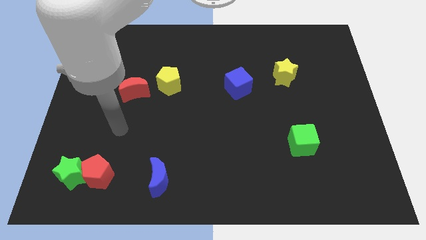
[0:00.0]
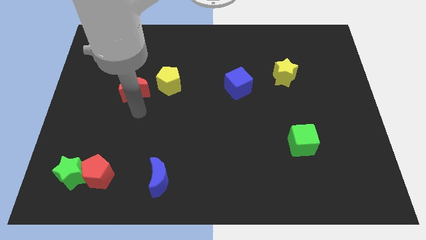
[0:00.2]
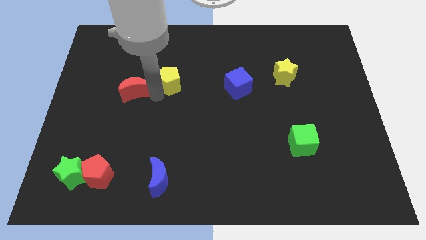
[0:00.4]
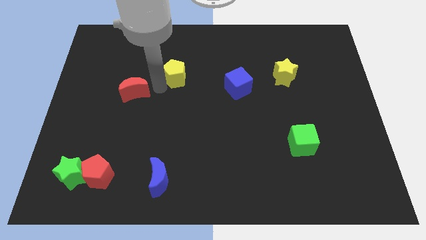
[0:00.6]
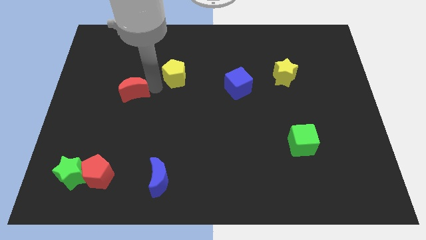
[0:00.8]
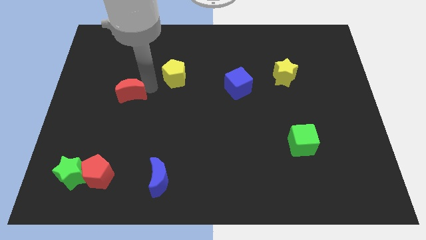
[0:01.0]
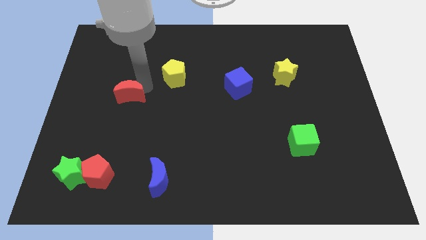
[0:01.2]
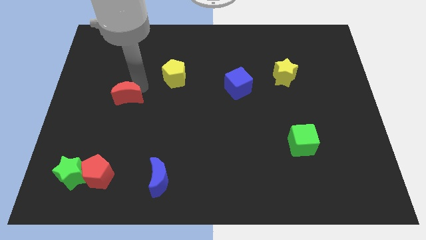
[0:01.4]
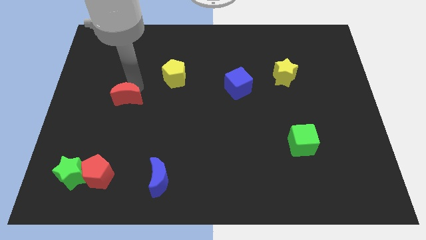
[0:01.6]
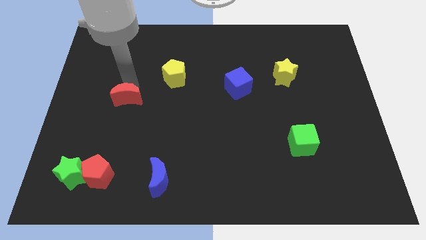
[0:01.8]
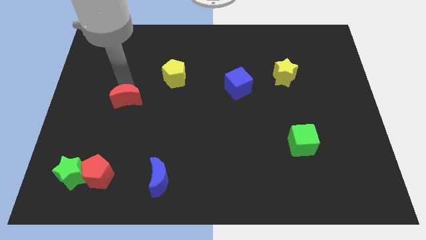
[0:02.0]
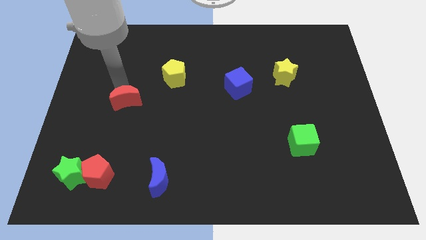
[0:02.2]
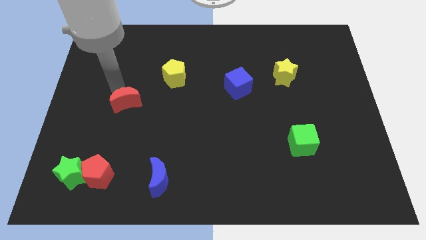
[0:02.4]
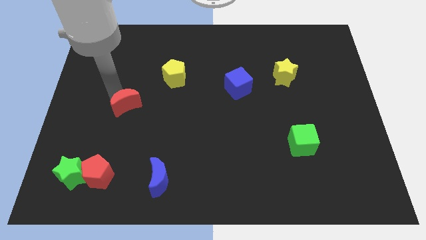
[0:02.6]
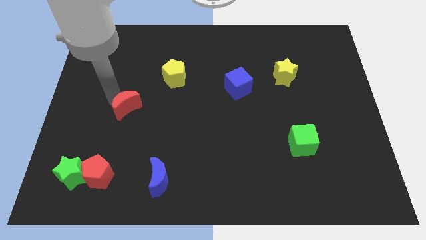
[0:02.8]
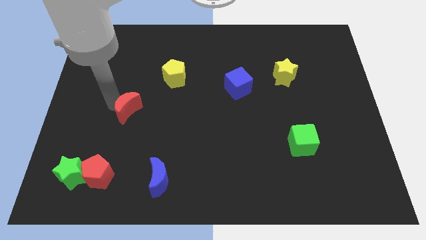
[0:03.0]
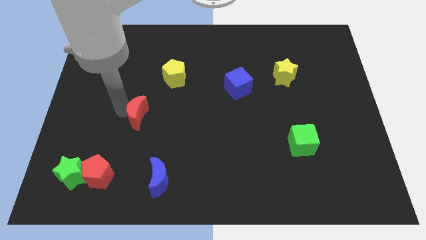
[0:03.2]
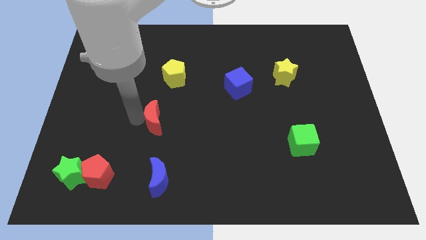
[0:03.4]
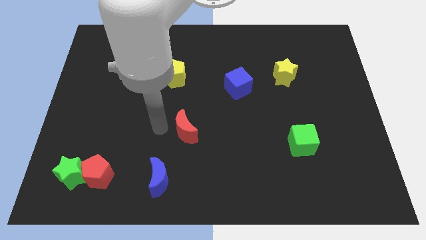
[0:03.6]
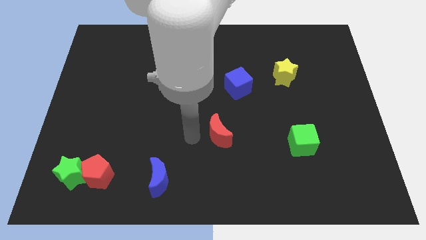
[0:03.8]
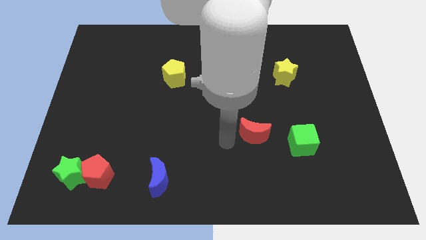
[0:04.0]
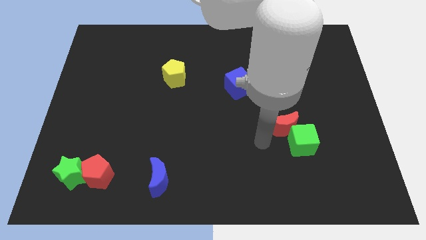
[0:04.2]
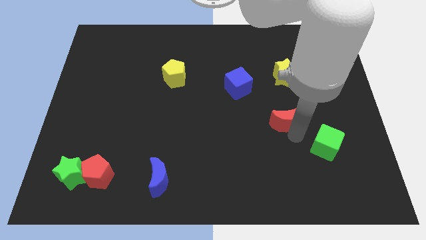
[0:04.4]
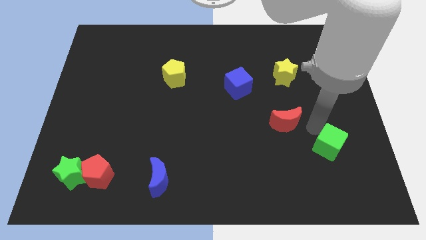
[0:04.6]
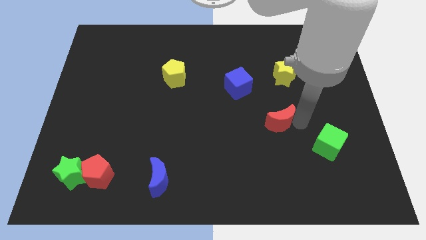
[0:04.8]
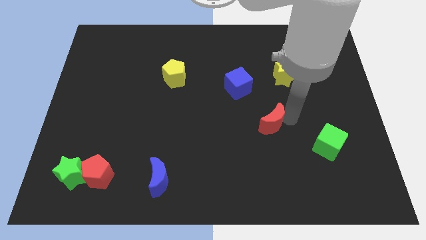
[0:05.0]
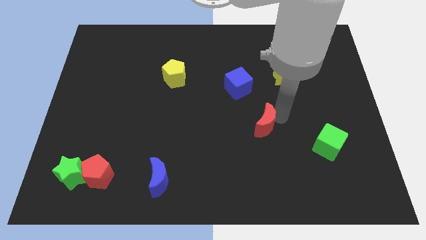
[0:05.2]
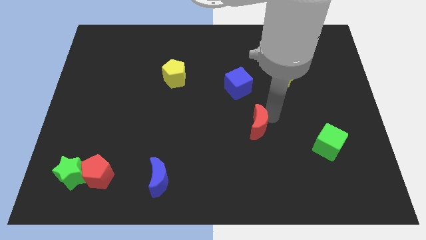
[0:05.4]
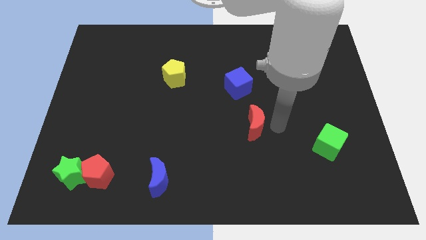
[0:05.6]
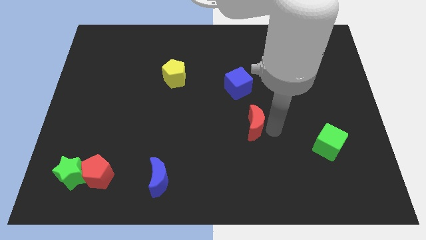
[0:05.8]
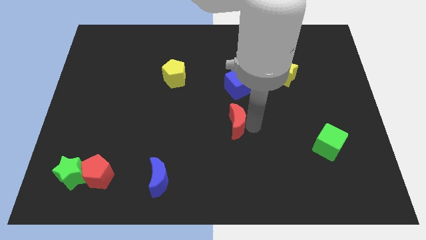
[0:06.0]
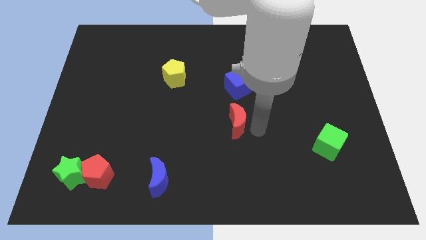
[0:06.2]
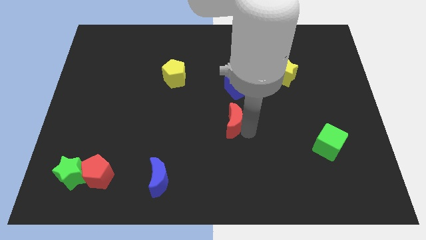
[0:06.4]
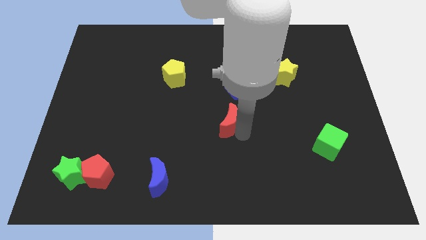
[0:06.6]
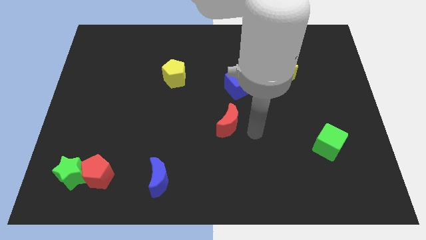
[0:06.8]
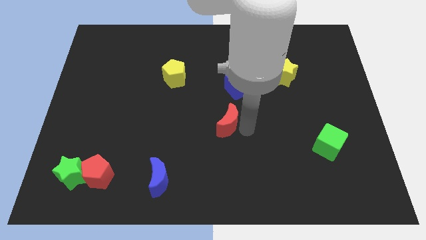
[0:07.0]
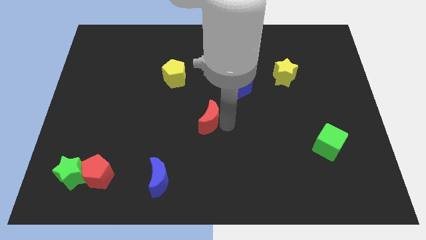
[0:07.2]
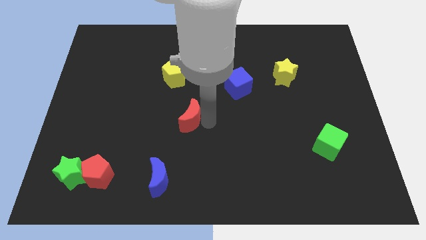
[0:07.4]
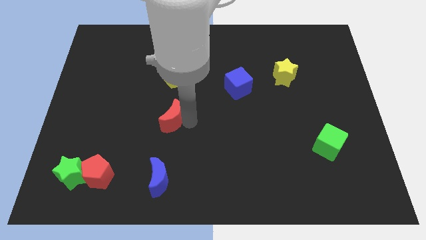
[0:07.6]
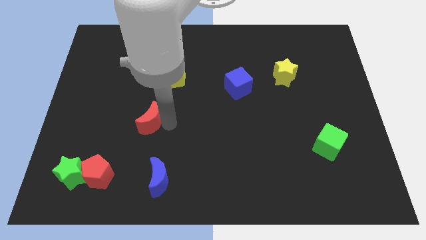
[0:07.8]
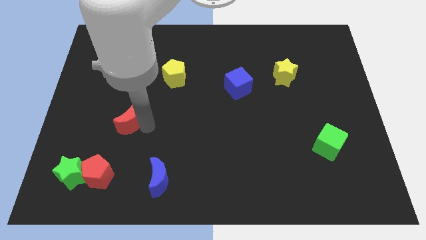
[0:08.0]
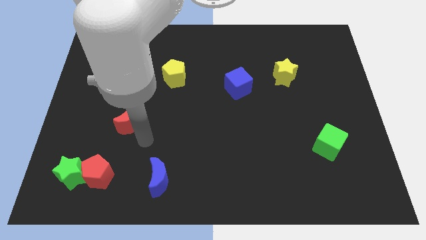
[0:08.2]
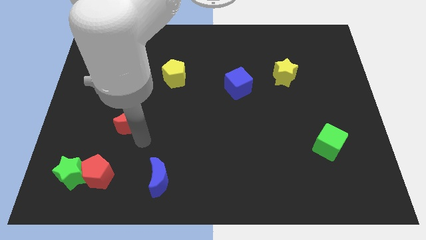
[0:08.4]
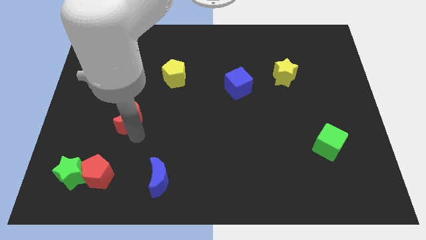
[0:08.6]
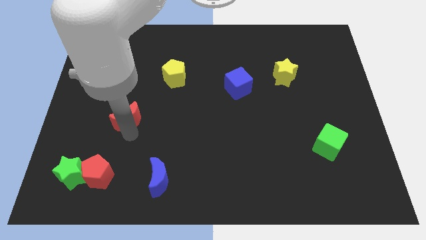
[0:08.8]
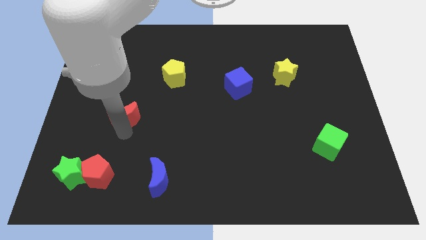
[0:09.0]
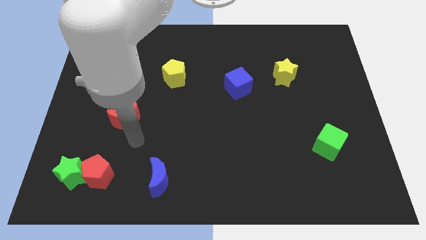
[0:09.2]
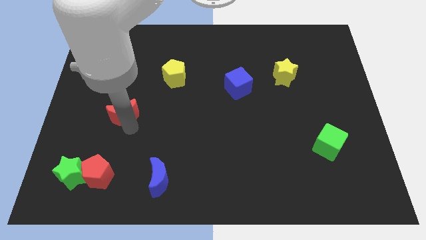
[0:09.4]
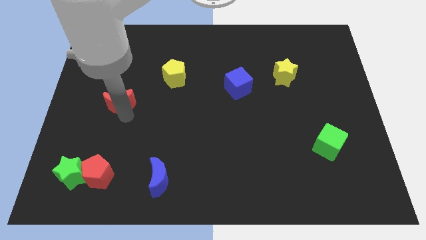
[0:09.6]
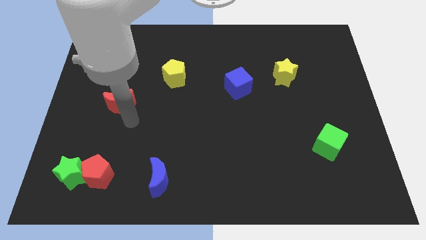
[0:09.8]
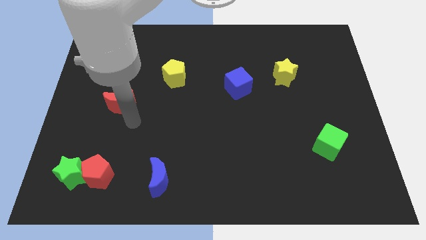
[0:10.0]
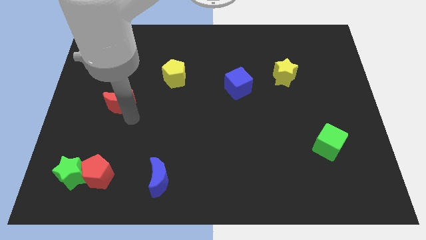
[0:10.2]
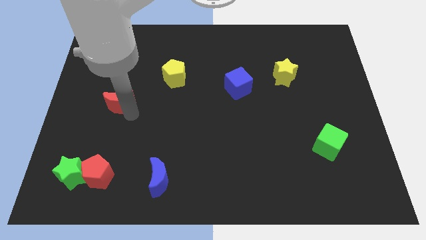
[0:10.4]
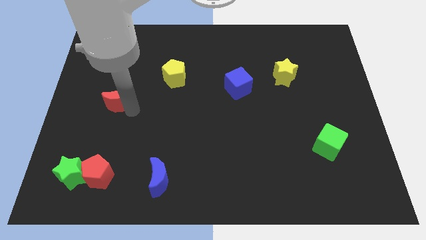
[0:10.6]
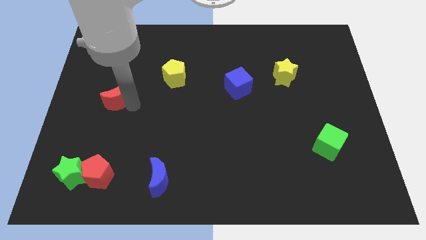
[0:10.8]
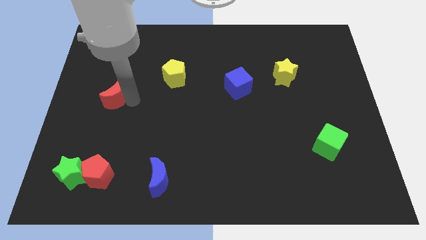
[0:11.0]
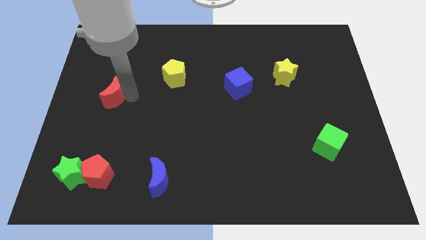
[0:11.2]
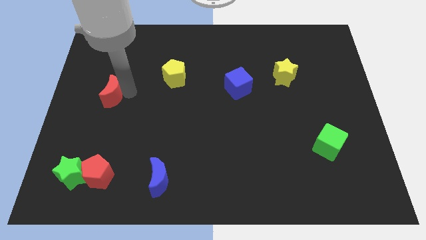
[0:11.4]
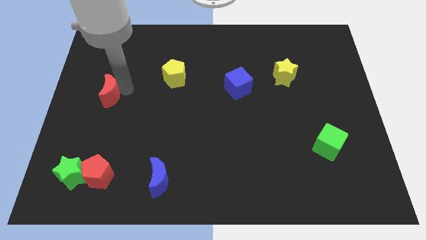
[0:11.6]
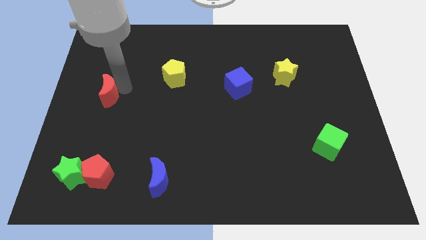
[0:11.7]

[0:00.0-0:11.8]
slide the red moon to the left side
